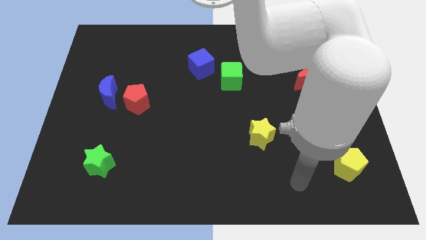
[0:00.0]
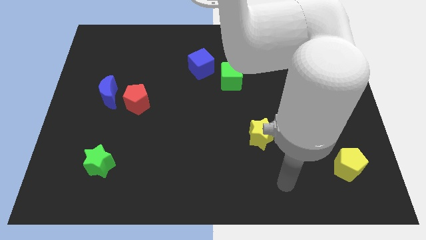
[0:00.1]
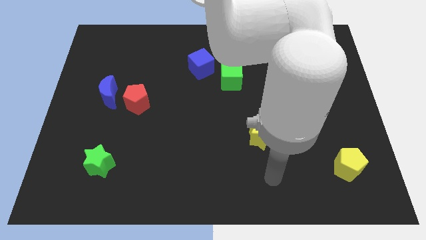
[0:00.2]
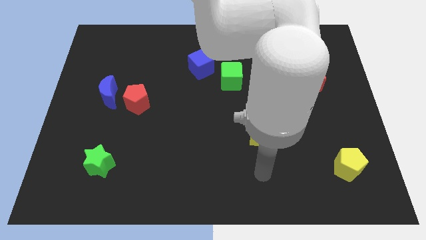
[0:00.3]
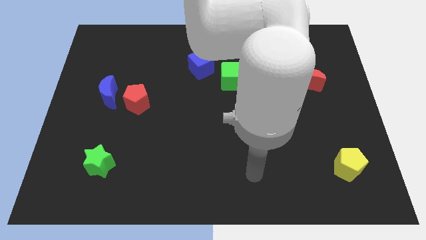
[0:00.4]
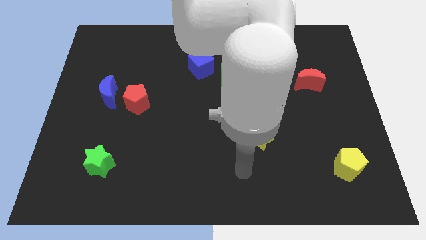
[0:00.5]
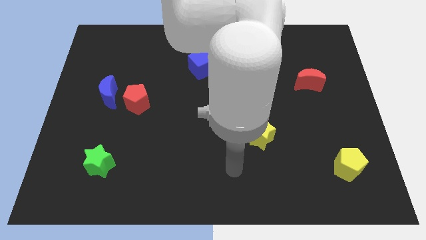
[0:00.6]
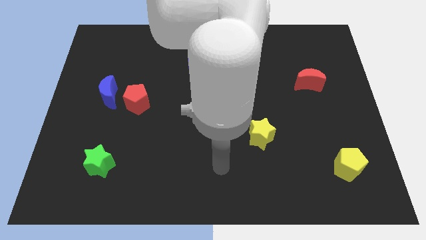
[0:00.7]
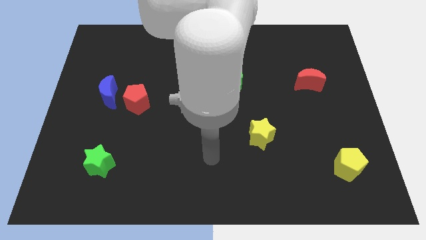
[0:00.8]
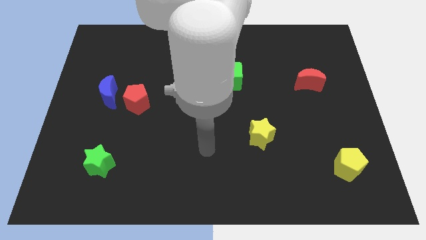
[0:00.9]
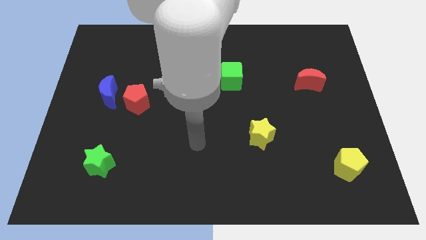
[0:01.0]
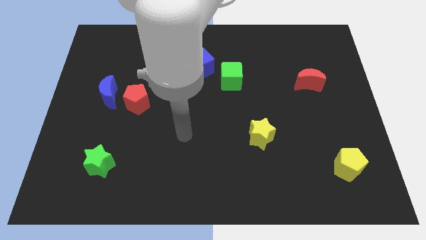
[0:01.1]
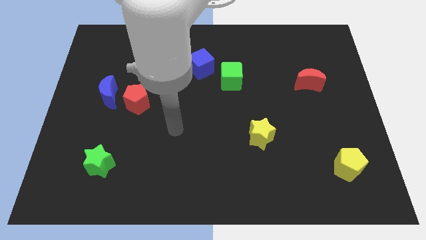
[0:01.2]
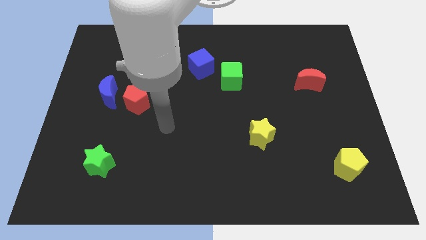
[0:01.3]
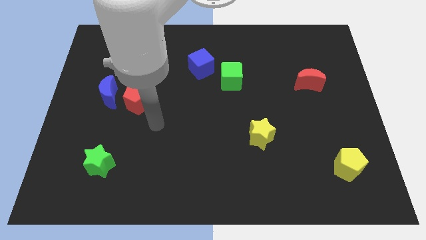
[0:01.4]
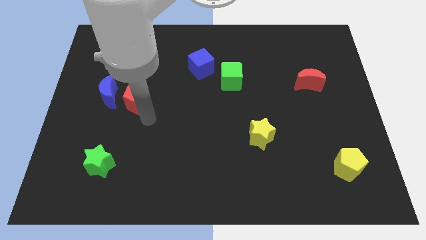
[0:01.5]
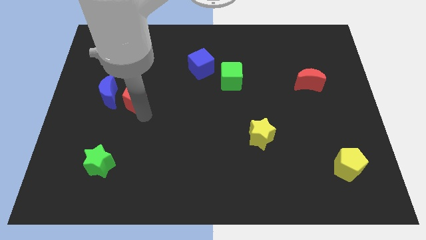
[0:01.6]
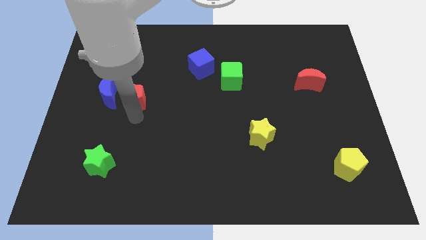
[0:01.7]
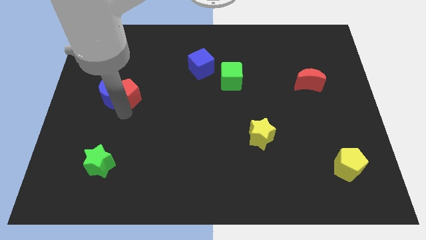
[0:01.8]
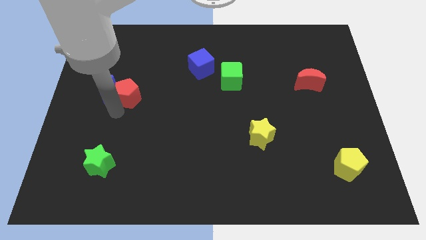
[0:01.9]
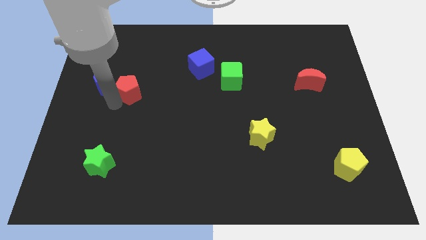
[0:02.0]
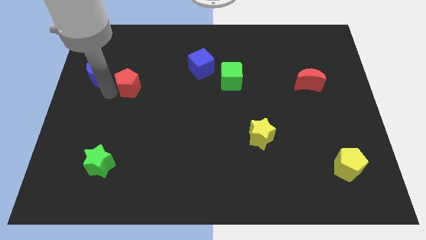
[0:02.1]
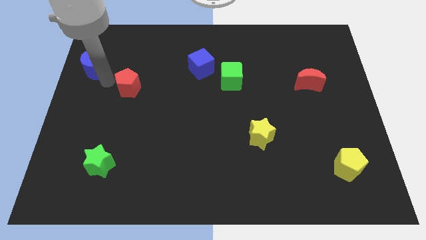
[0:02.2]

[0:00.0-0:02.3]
move the red pentagon away from the blue moon

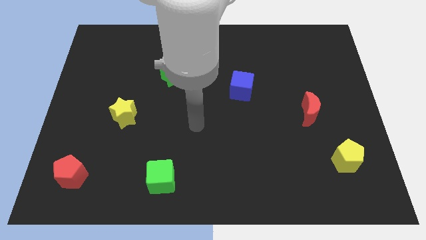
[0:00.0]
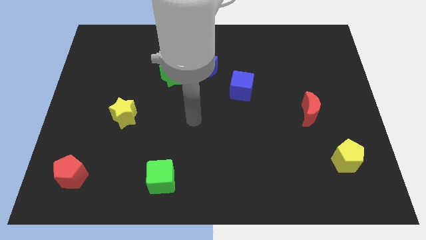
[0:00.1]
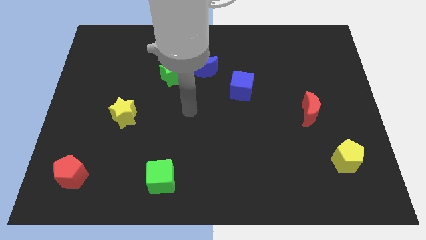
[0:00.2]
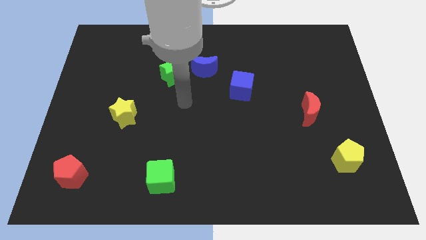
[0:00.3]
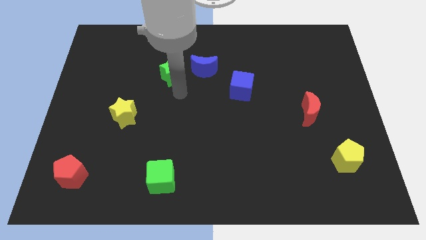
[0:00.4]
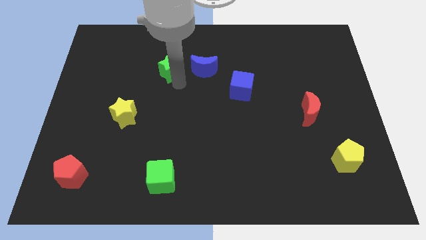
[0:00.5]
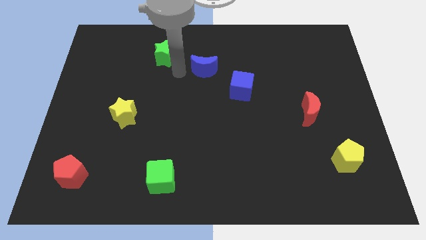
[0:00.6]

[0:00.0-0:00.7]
pull the blue moon apart from the green star

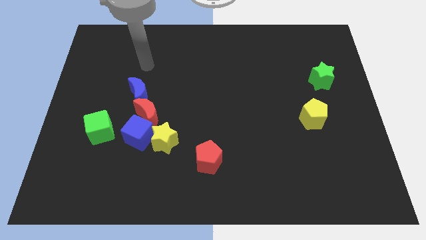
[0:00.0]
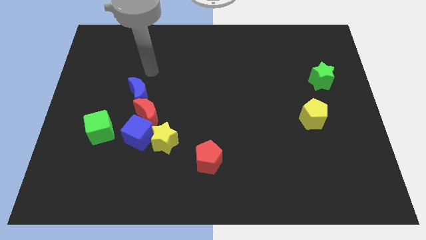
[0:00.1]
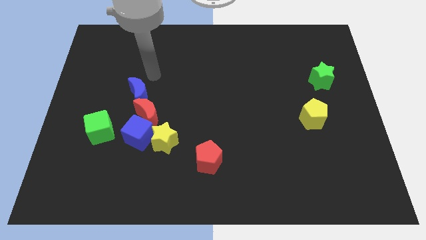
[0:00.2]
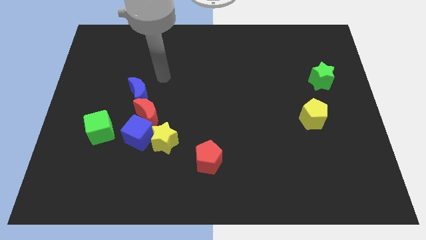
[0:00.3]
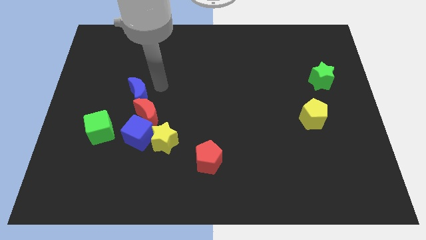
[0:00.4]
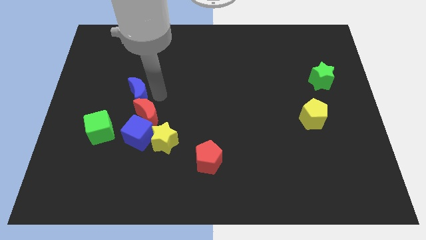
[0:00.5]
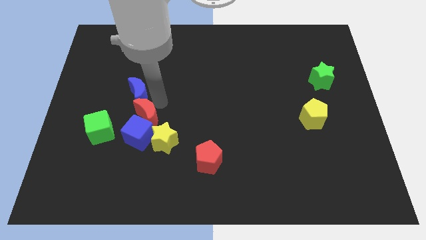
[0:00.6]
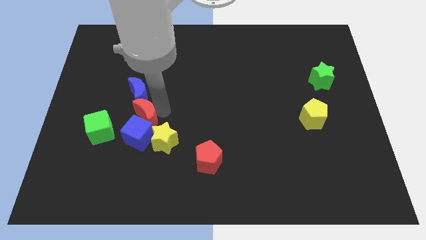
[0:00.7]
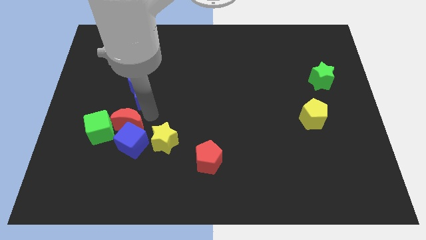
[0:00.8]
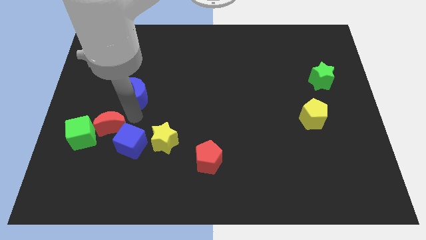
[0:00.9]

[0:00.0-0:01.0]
pull the blue moon apart from the red moon

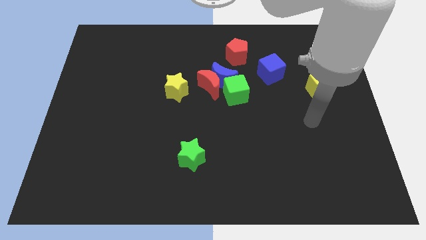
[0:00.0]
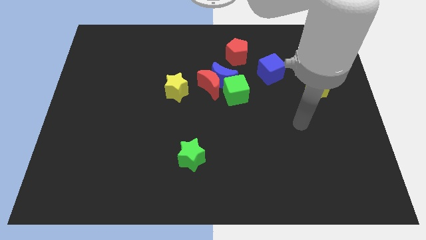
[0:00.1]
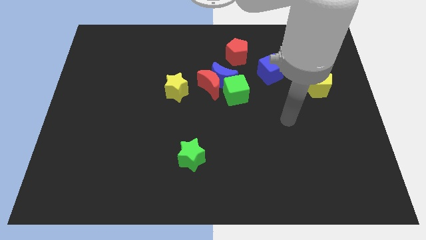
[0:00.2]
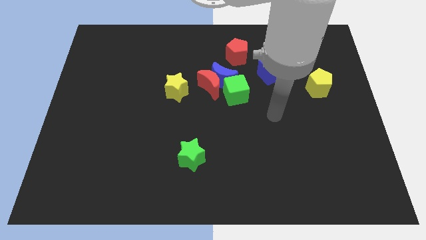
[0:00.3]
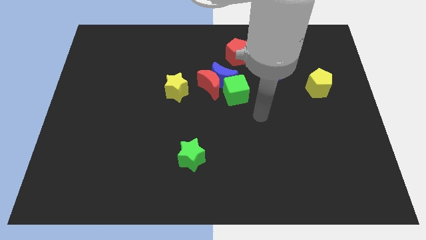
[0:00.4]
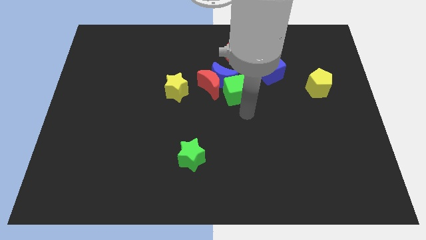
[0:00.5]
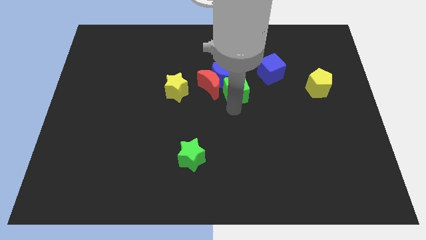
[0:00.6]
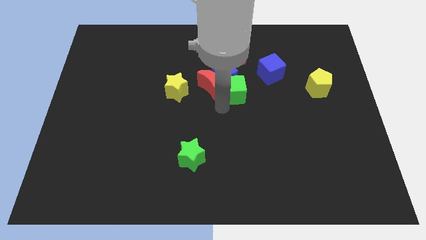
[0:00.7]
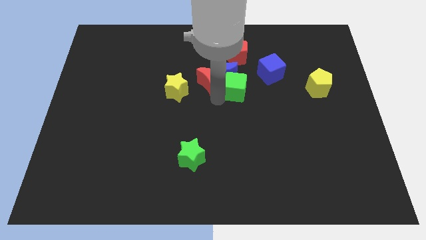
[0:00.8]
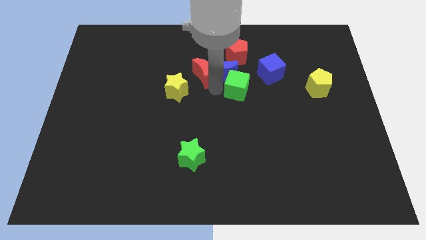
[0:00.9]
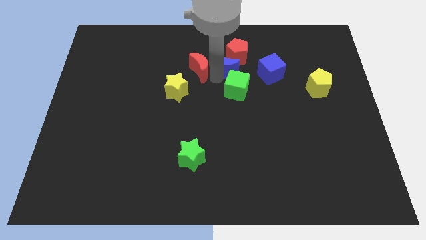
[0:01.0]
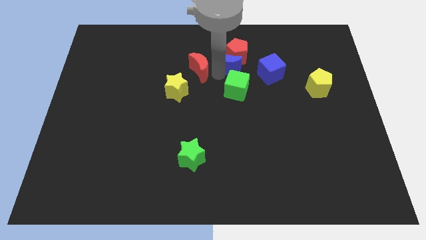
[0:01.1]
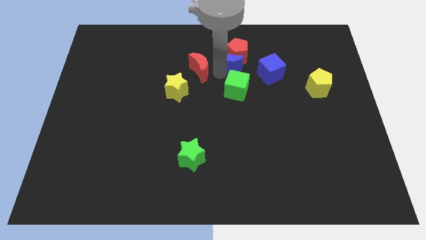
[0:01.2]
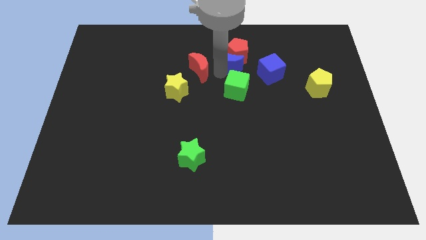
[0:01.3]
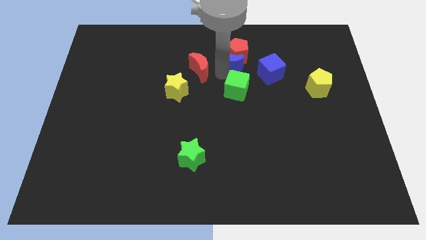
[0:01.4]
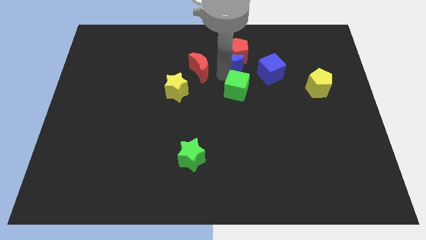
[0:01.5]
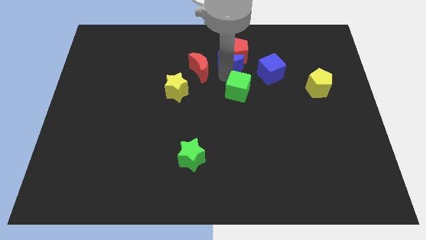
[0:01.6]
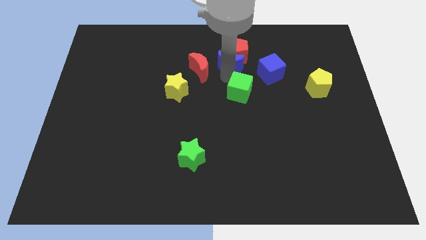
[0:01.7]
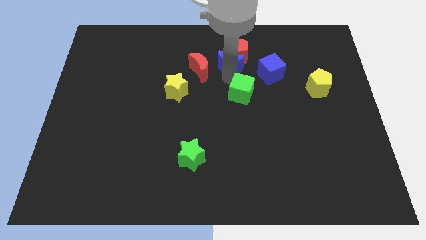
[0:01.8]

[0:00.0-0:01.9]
pull the green cube apart from the blue moon and red moon

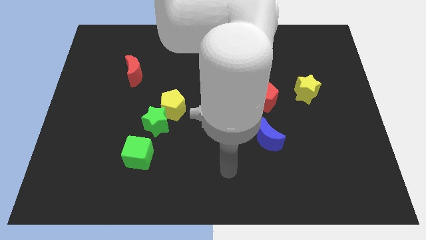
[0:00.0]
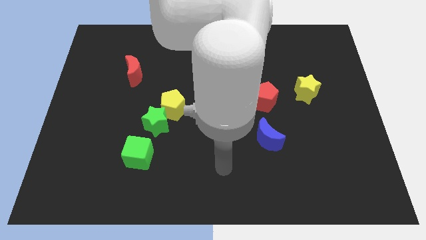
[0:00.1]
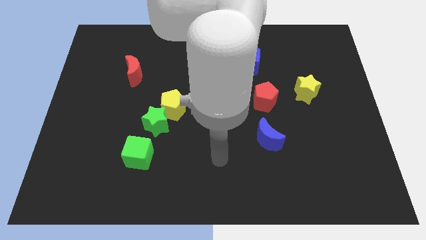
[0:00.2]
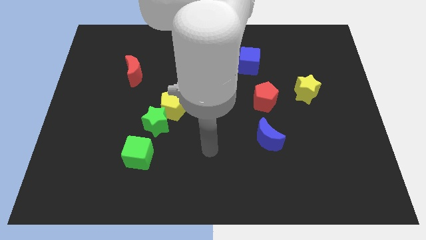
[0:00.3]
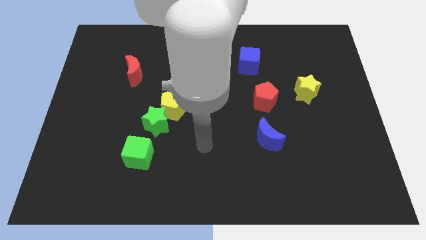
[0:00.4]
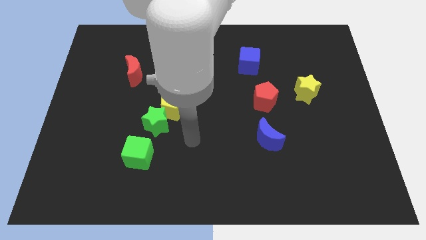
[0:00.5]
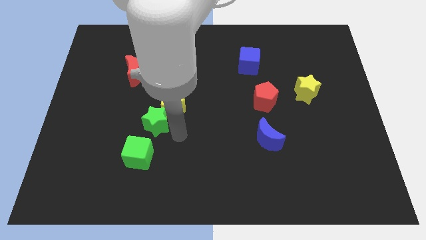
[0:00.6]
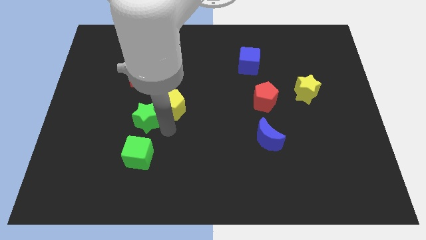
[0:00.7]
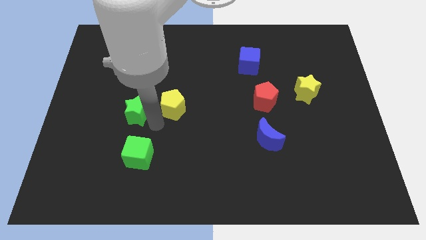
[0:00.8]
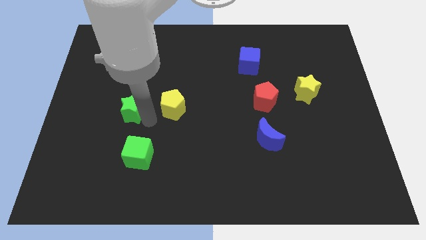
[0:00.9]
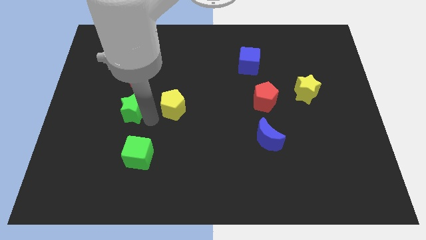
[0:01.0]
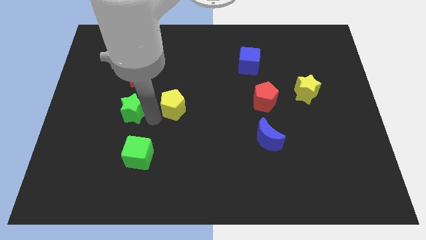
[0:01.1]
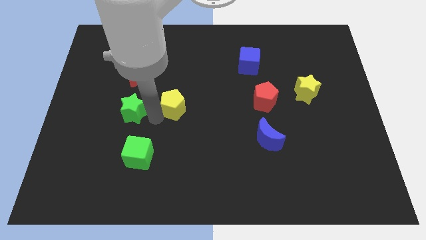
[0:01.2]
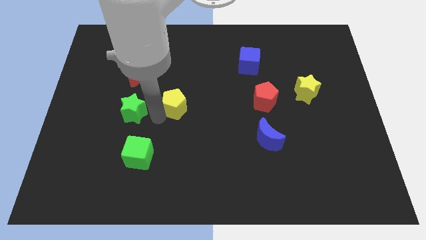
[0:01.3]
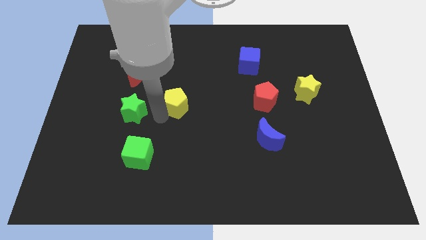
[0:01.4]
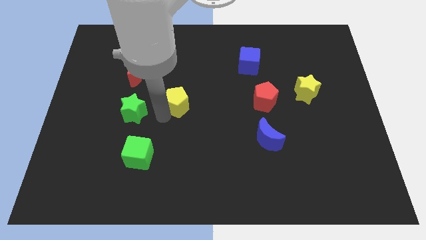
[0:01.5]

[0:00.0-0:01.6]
move the yellow pentagon away from the green star

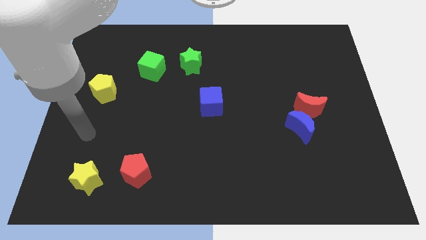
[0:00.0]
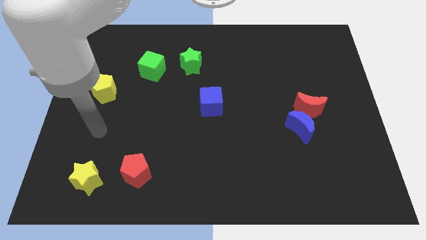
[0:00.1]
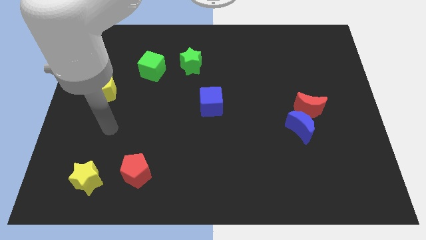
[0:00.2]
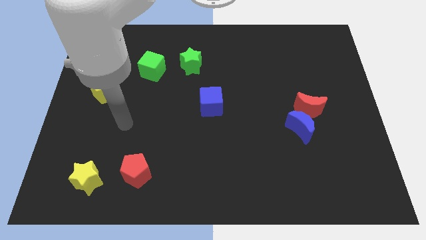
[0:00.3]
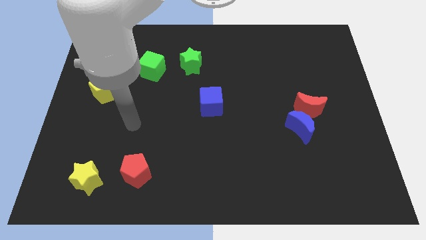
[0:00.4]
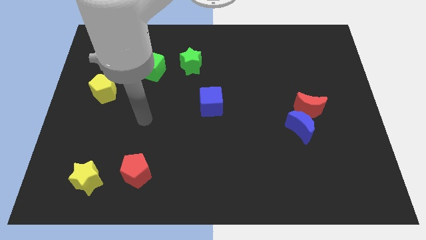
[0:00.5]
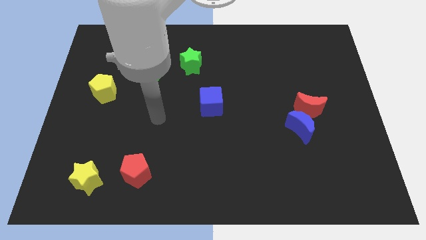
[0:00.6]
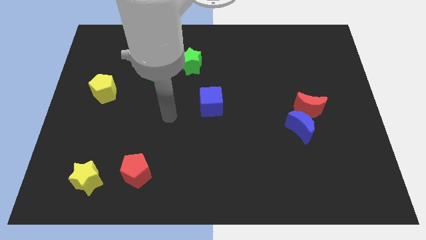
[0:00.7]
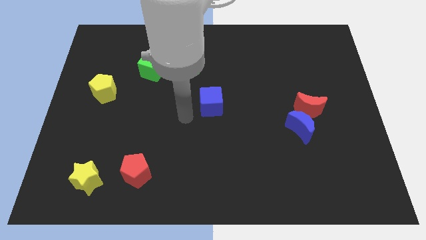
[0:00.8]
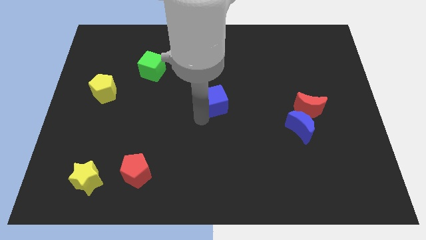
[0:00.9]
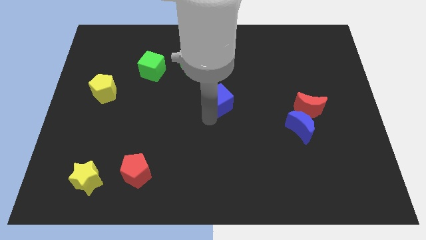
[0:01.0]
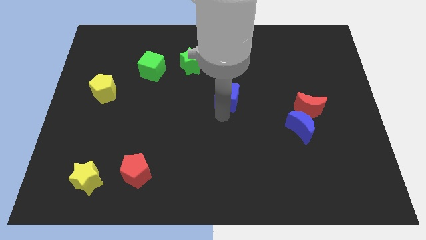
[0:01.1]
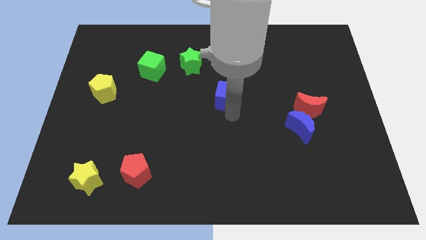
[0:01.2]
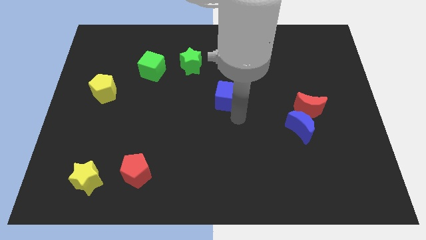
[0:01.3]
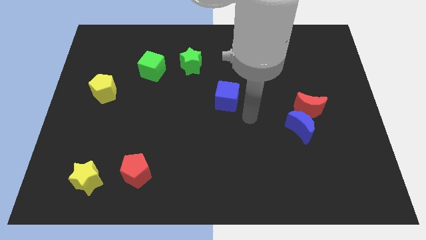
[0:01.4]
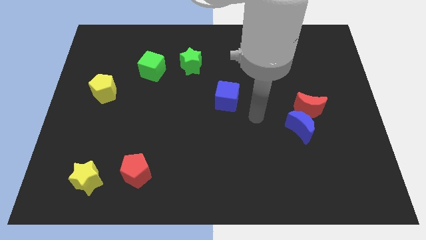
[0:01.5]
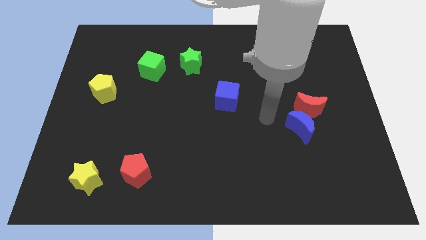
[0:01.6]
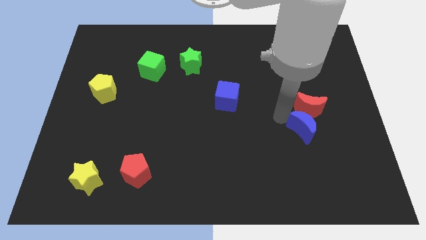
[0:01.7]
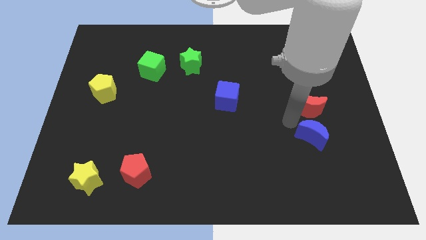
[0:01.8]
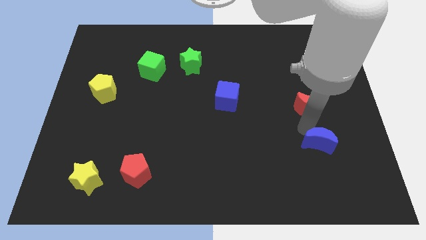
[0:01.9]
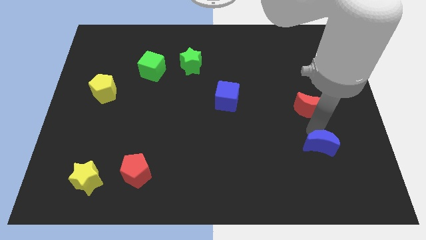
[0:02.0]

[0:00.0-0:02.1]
pull the red moon apart from the blue moon
